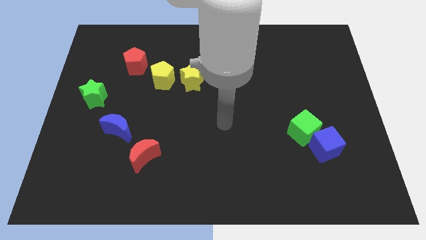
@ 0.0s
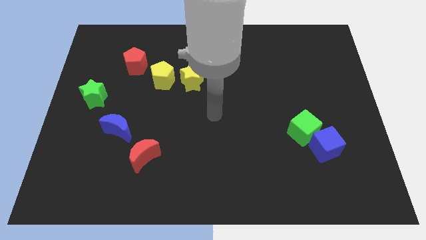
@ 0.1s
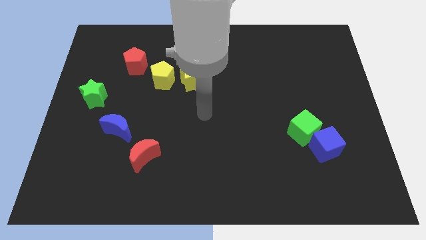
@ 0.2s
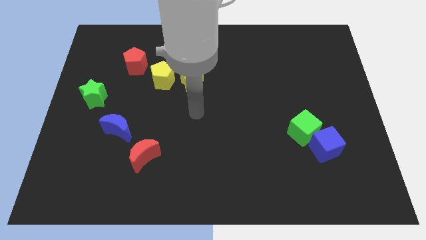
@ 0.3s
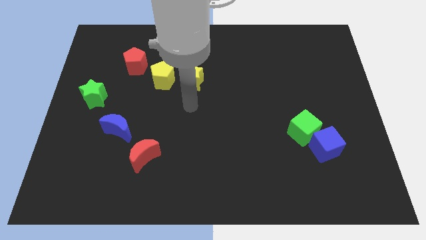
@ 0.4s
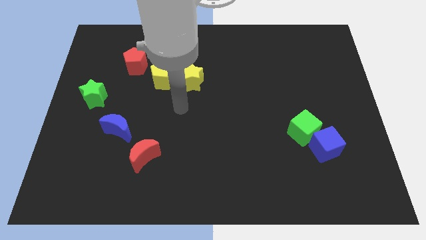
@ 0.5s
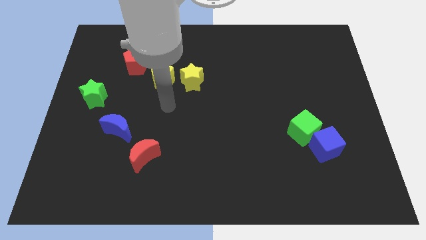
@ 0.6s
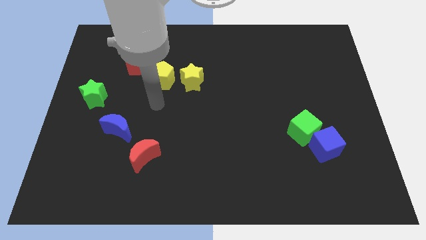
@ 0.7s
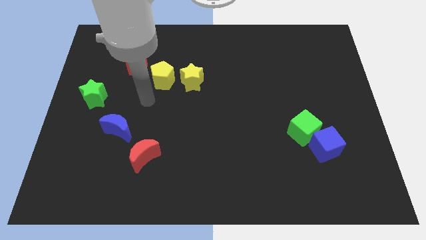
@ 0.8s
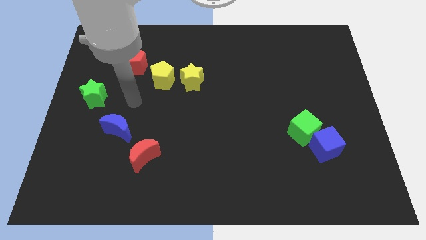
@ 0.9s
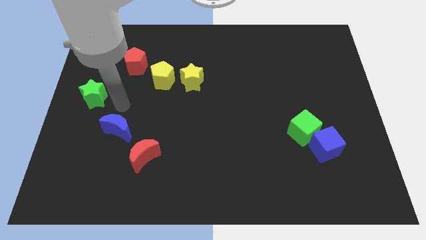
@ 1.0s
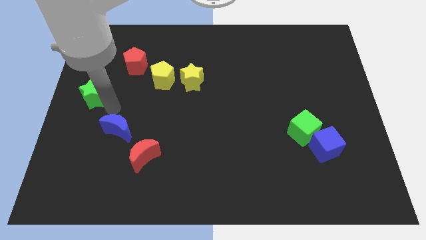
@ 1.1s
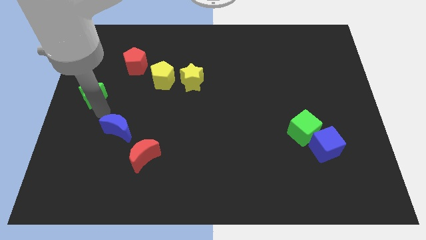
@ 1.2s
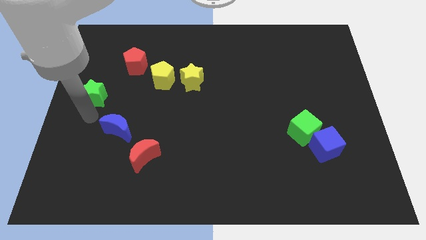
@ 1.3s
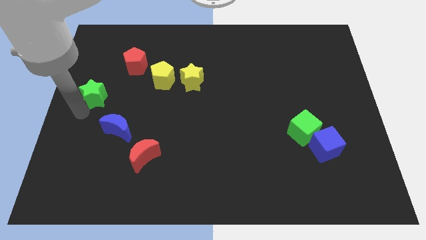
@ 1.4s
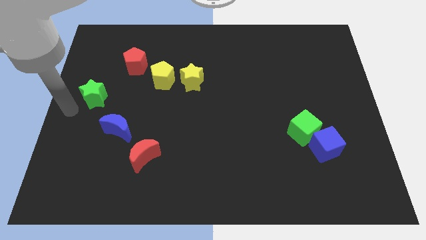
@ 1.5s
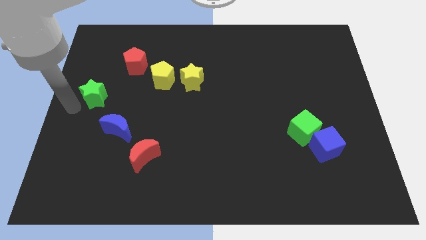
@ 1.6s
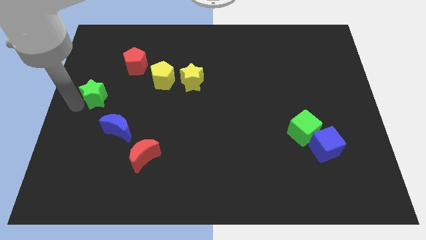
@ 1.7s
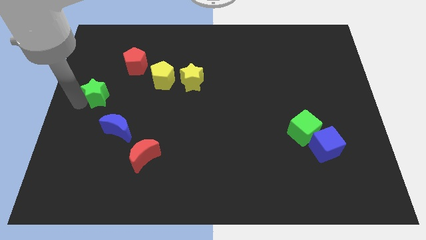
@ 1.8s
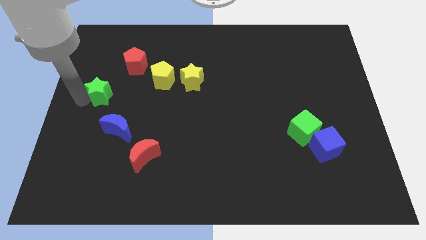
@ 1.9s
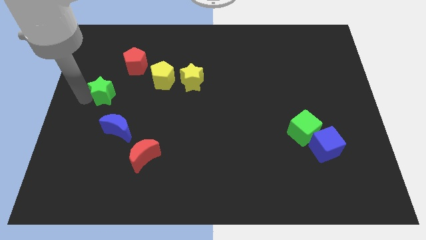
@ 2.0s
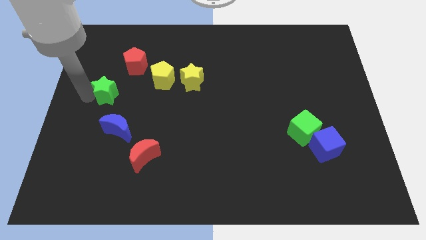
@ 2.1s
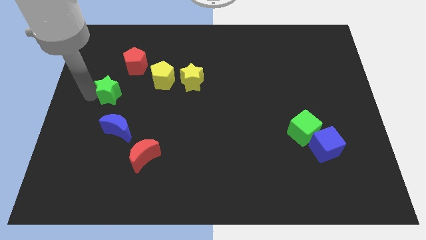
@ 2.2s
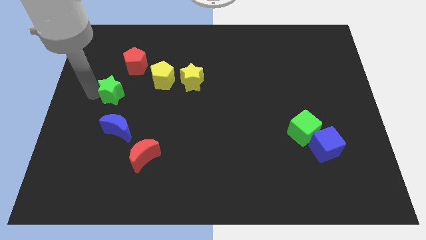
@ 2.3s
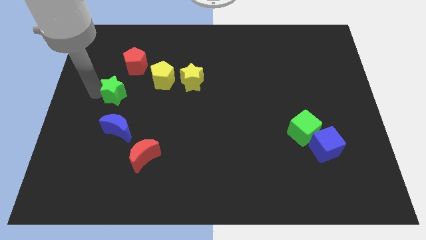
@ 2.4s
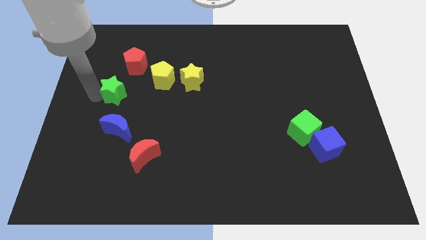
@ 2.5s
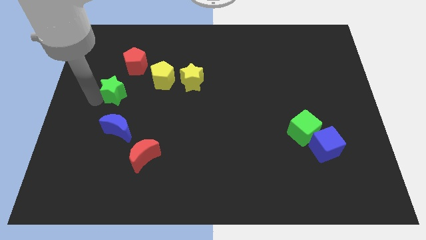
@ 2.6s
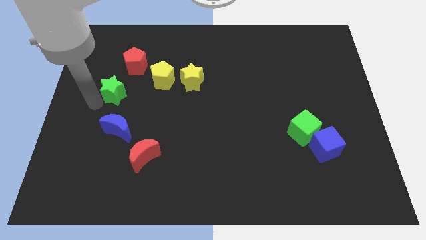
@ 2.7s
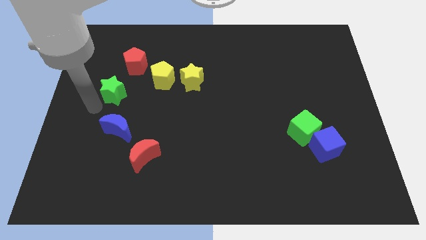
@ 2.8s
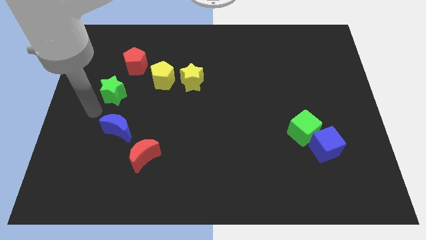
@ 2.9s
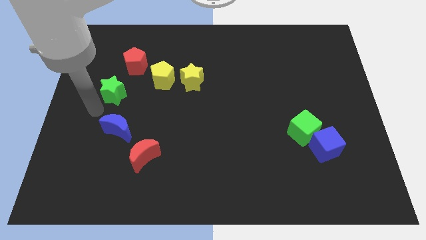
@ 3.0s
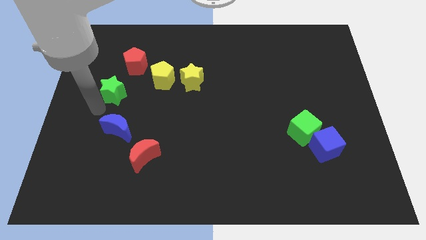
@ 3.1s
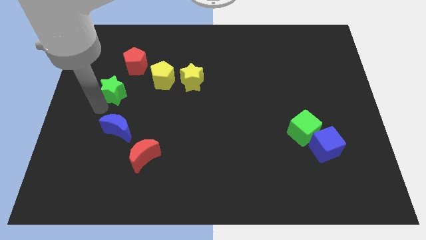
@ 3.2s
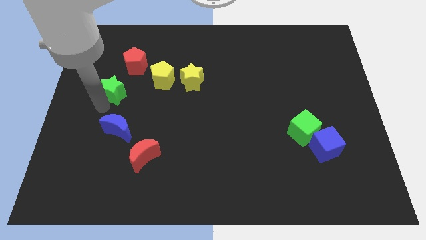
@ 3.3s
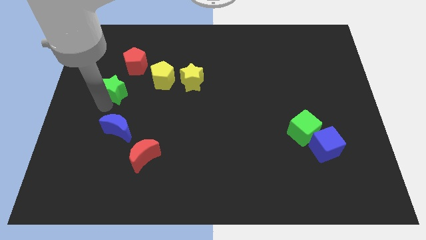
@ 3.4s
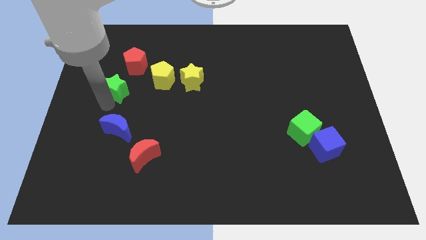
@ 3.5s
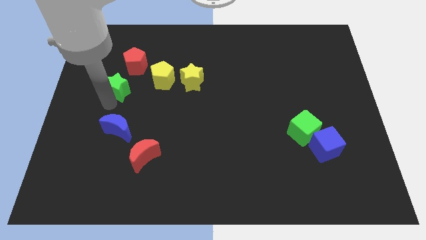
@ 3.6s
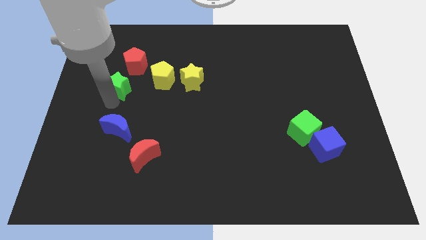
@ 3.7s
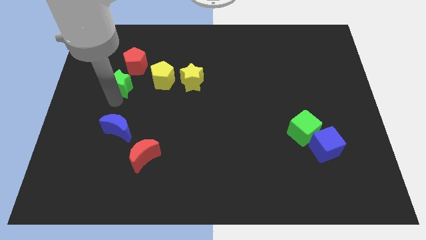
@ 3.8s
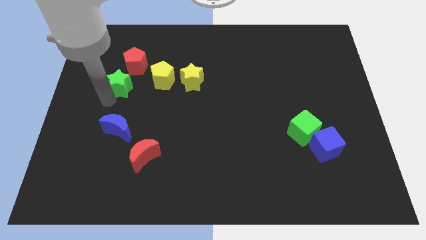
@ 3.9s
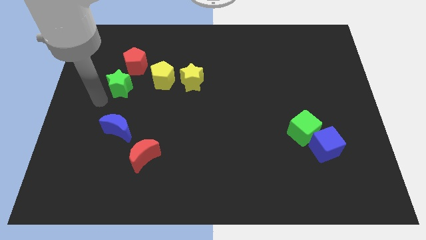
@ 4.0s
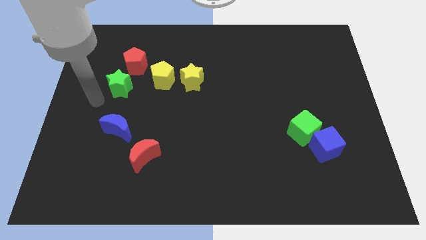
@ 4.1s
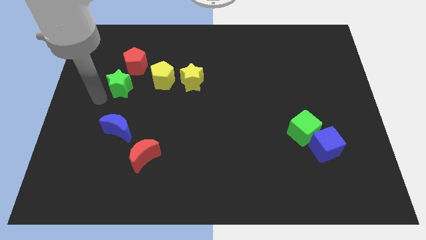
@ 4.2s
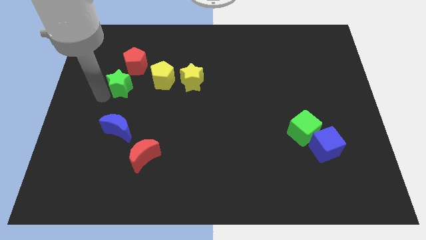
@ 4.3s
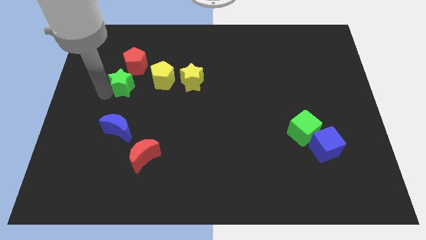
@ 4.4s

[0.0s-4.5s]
push the green star up and right slightly

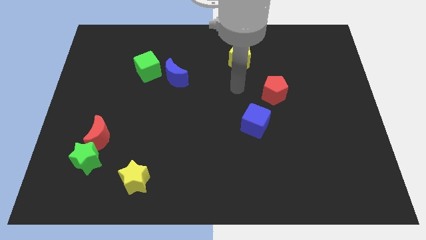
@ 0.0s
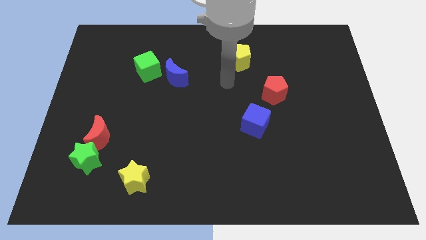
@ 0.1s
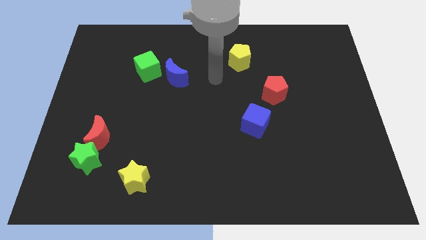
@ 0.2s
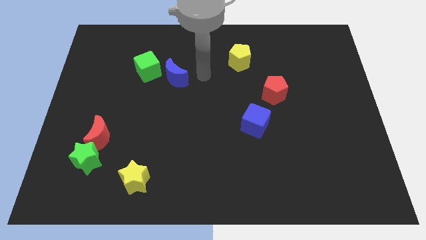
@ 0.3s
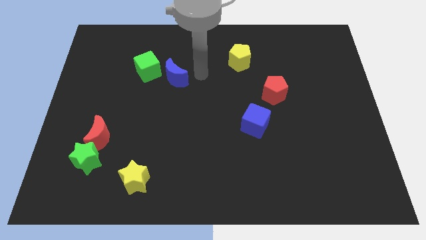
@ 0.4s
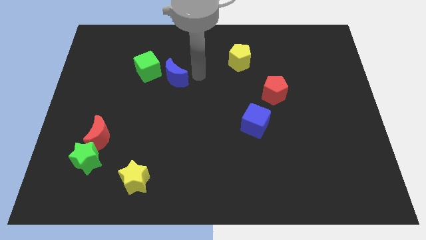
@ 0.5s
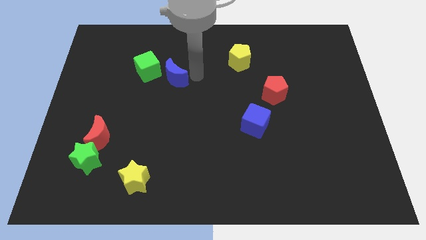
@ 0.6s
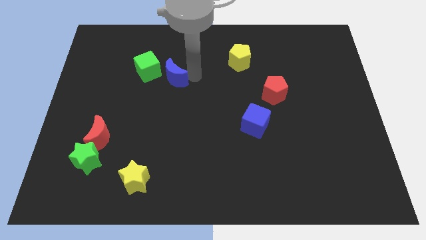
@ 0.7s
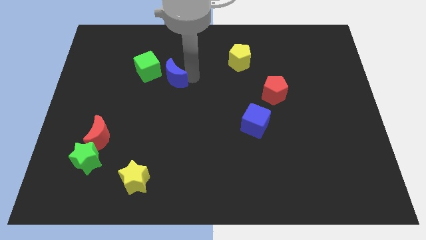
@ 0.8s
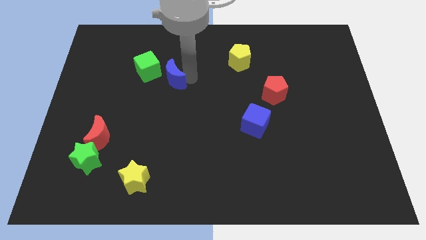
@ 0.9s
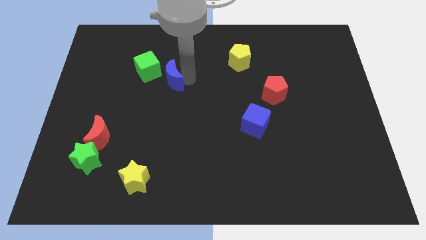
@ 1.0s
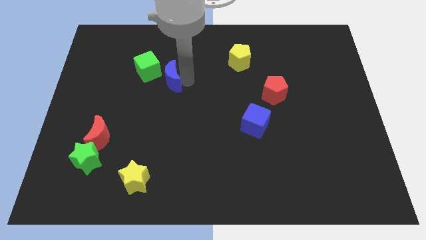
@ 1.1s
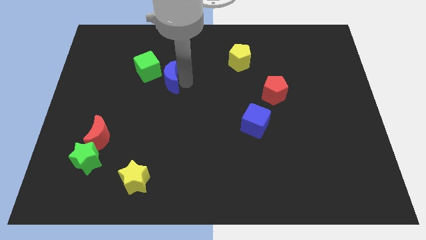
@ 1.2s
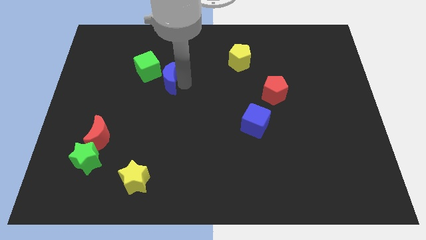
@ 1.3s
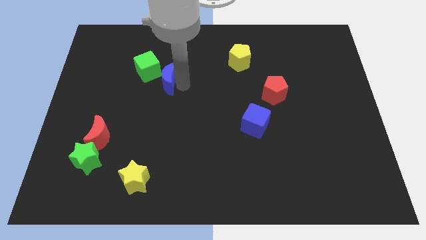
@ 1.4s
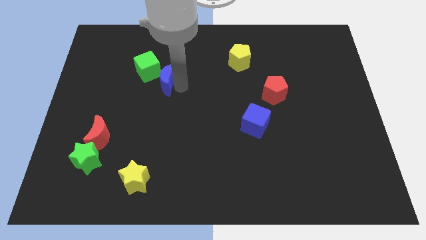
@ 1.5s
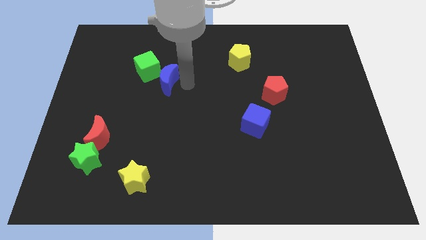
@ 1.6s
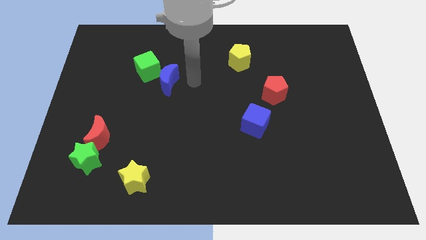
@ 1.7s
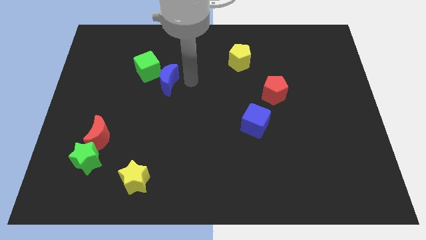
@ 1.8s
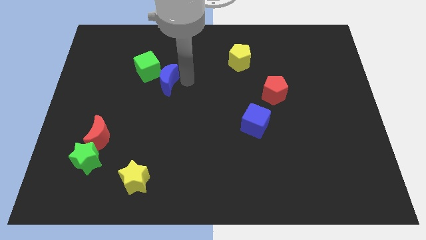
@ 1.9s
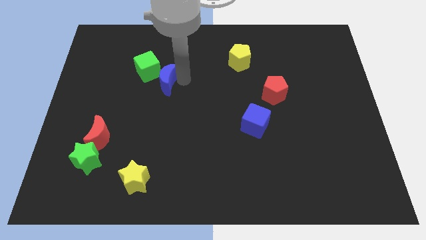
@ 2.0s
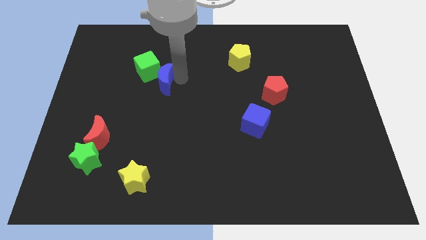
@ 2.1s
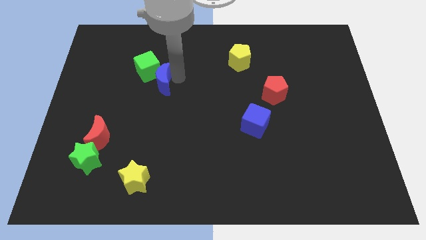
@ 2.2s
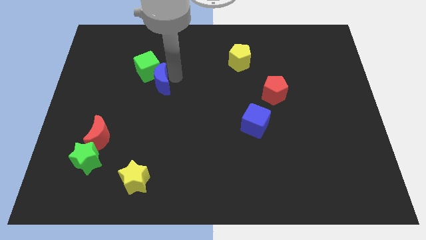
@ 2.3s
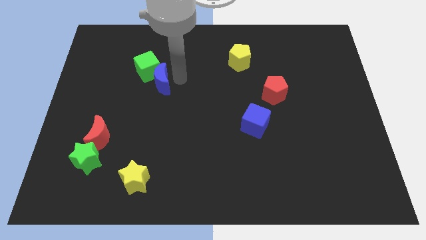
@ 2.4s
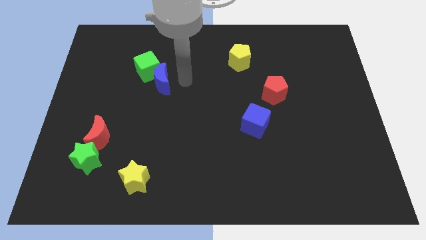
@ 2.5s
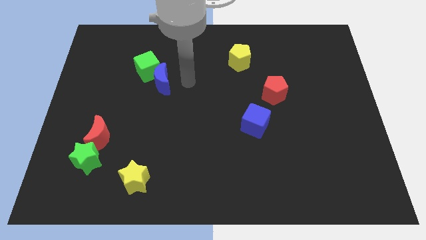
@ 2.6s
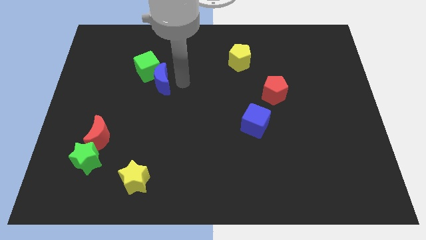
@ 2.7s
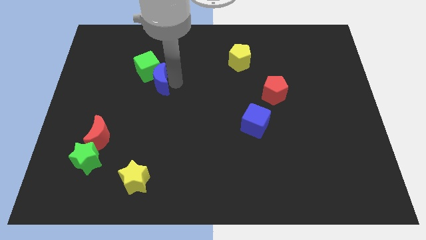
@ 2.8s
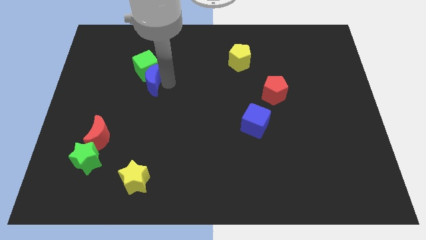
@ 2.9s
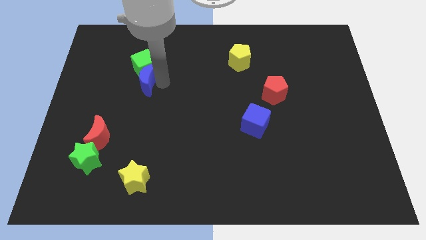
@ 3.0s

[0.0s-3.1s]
slightly push the blue moon left

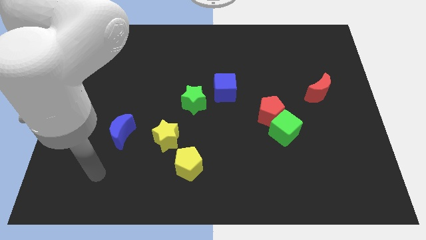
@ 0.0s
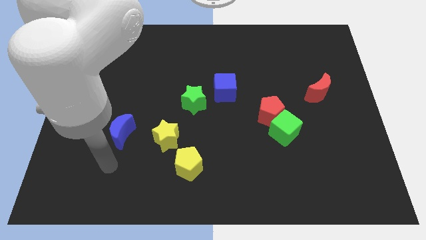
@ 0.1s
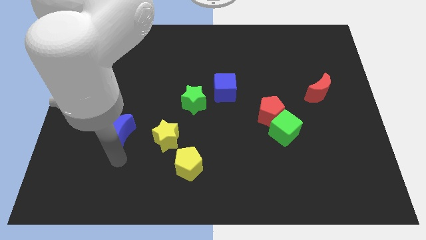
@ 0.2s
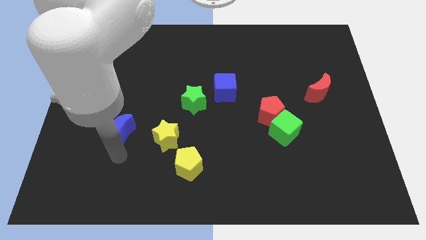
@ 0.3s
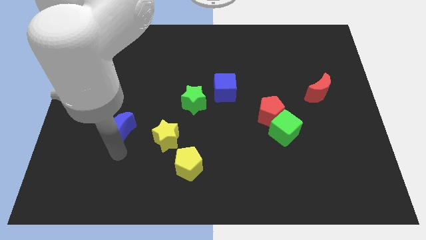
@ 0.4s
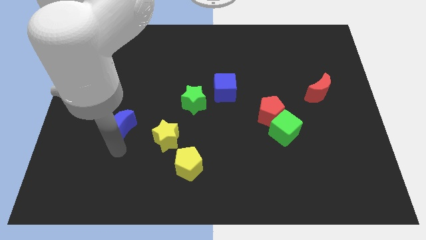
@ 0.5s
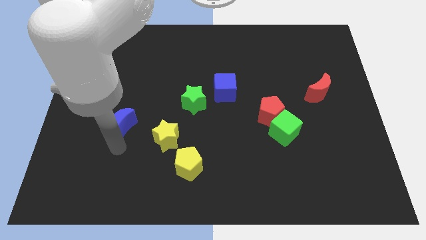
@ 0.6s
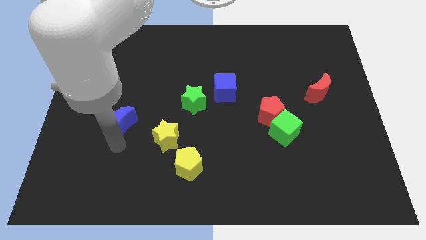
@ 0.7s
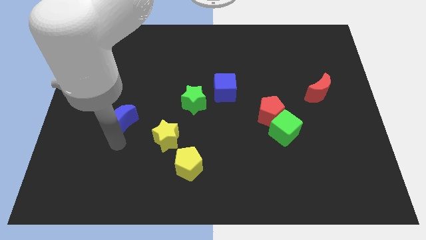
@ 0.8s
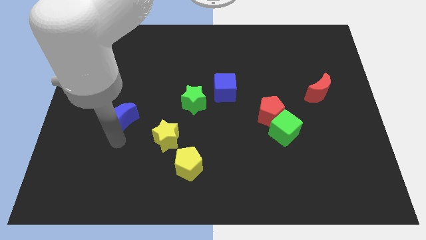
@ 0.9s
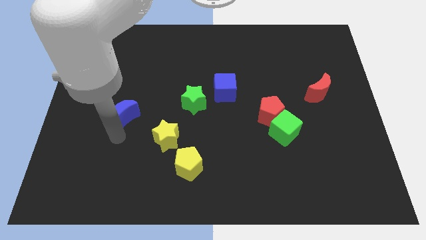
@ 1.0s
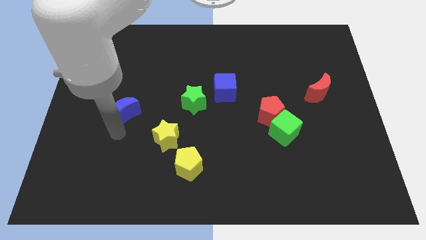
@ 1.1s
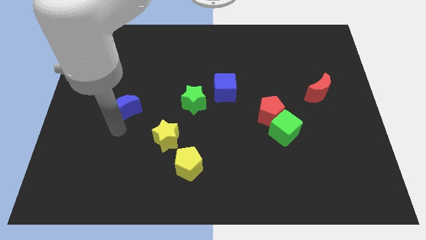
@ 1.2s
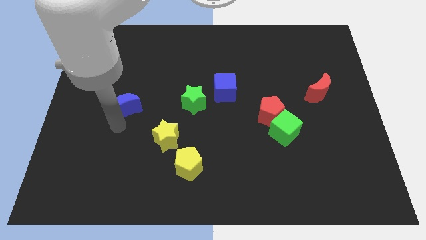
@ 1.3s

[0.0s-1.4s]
push the blue moon upwards a little
